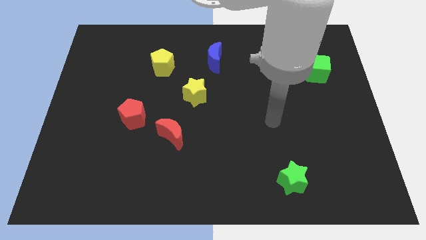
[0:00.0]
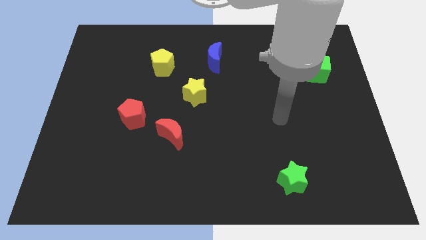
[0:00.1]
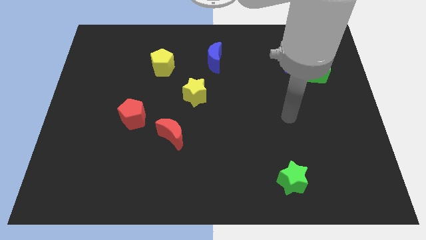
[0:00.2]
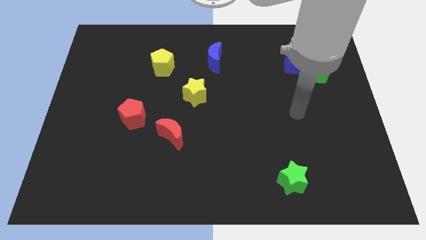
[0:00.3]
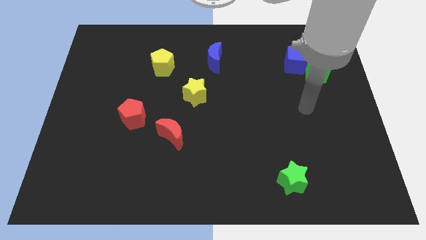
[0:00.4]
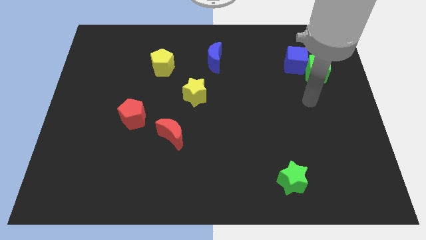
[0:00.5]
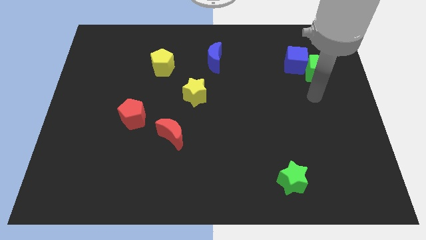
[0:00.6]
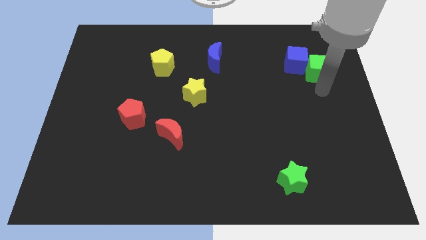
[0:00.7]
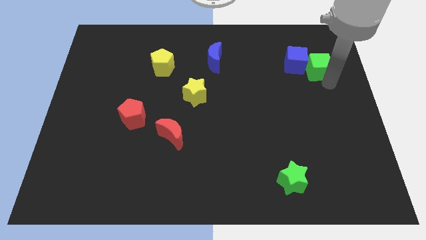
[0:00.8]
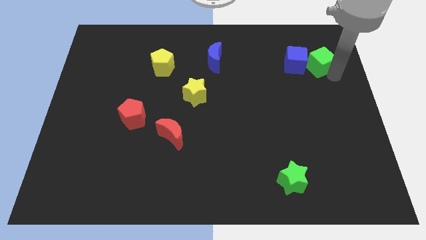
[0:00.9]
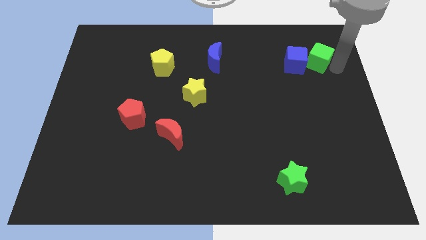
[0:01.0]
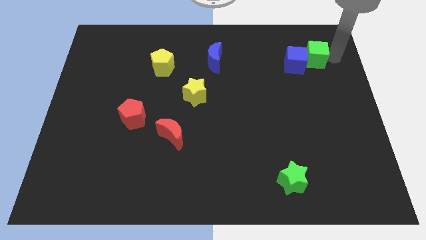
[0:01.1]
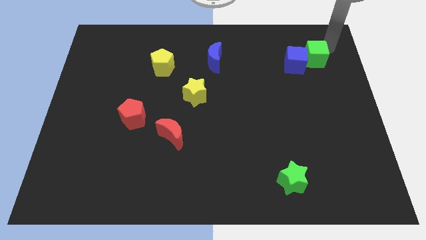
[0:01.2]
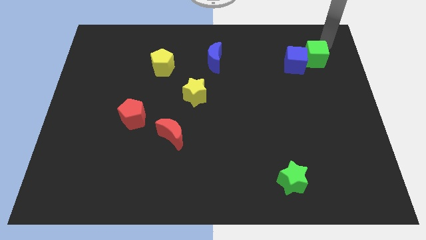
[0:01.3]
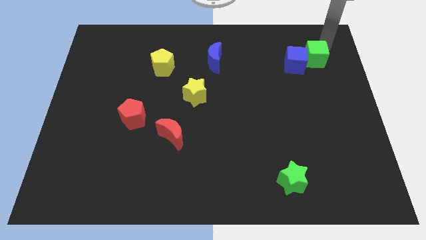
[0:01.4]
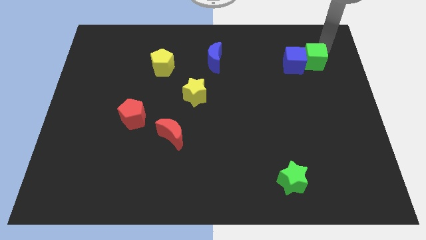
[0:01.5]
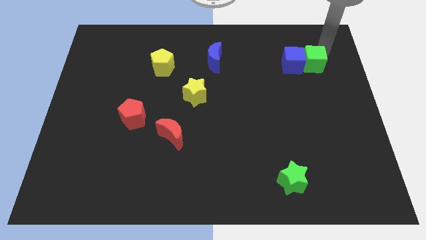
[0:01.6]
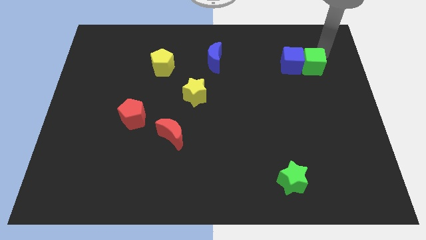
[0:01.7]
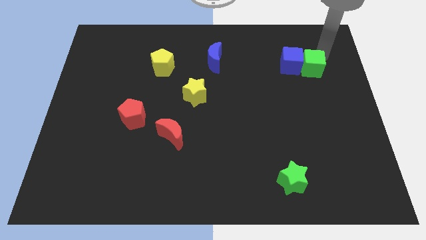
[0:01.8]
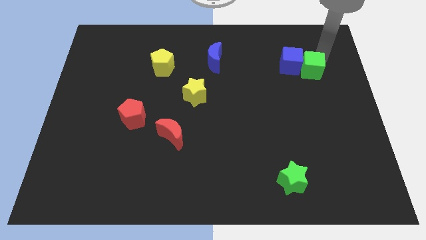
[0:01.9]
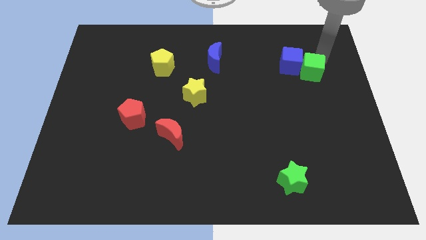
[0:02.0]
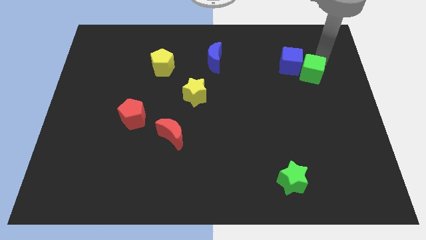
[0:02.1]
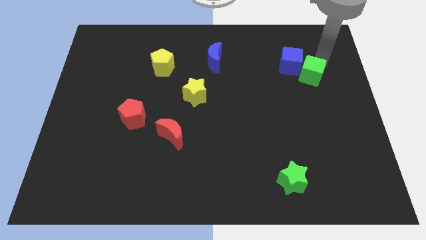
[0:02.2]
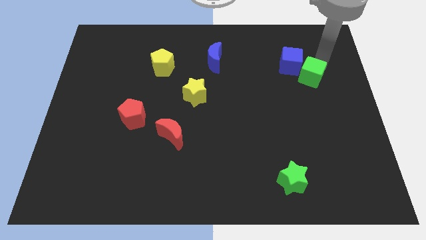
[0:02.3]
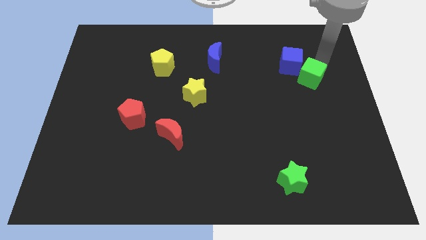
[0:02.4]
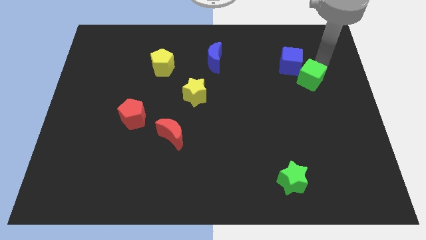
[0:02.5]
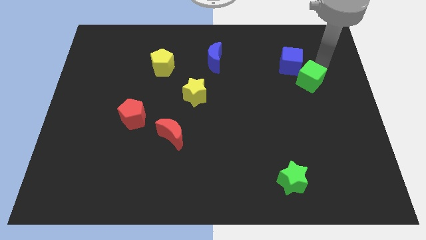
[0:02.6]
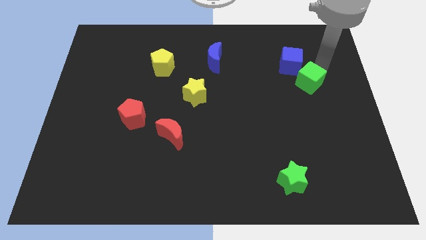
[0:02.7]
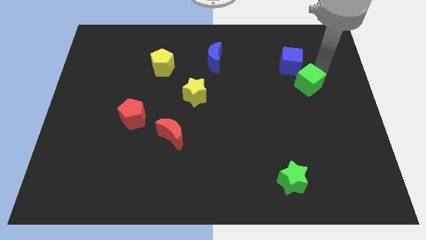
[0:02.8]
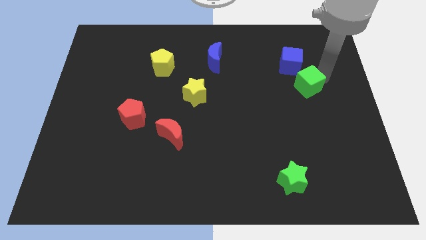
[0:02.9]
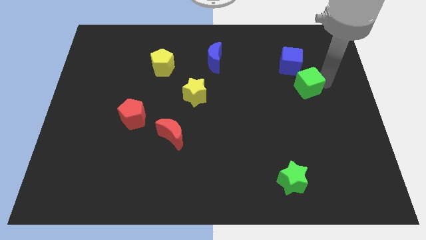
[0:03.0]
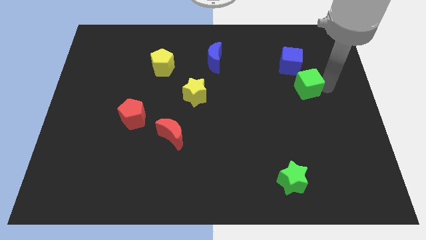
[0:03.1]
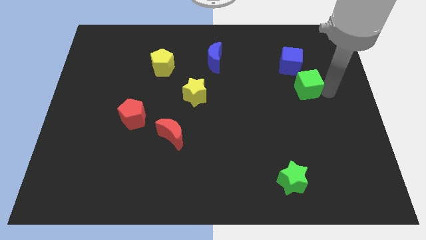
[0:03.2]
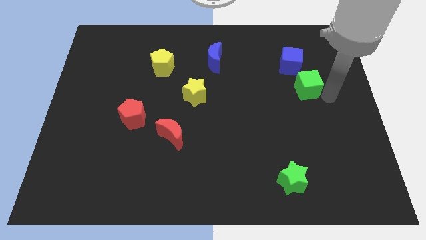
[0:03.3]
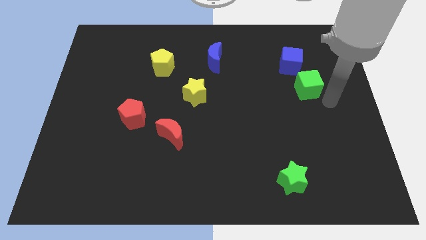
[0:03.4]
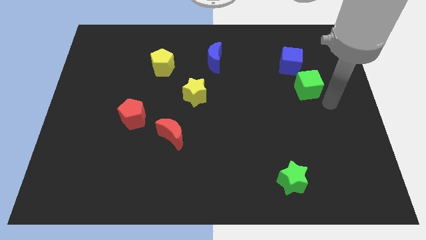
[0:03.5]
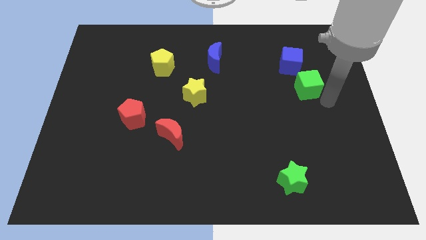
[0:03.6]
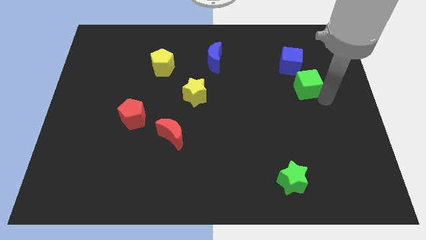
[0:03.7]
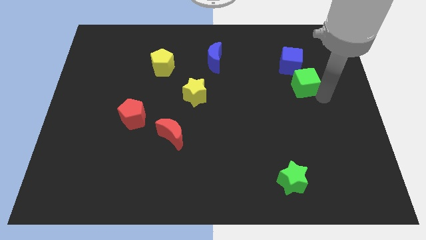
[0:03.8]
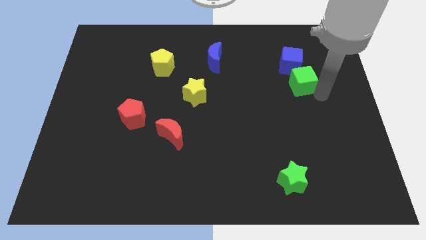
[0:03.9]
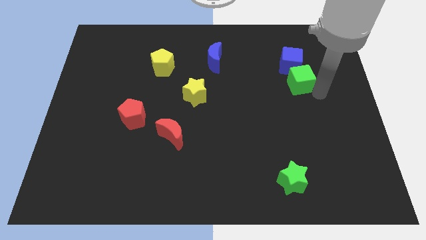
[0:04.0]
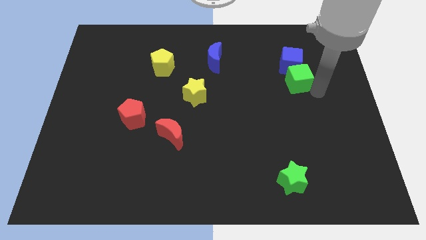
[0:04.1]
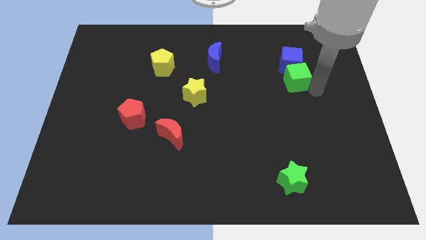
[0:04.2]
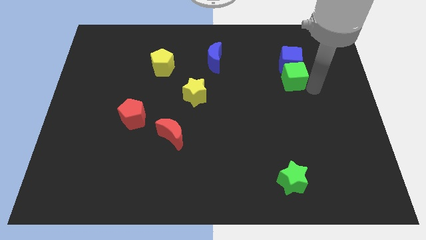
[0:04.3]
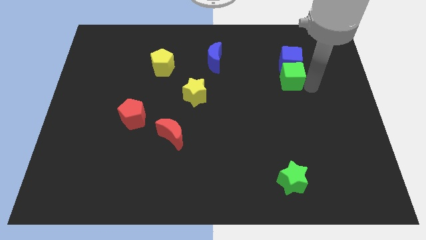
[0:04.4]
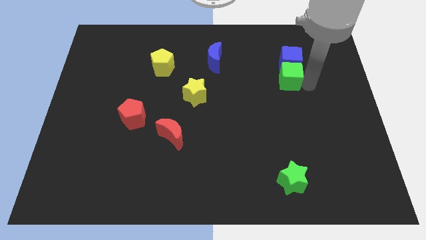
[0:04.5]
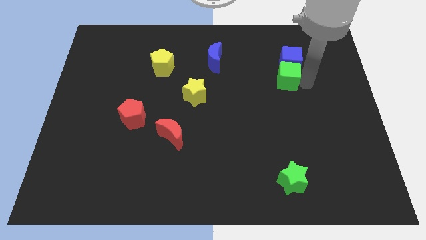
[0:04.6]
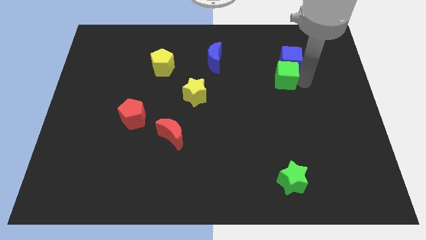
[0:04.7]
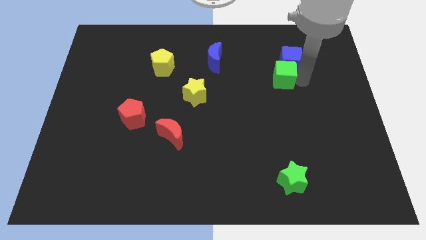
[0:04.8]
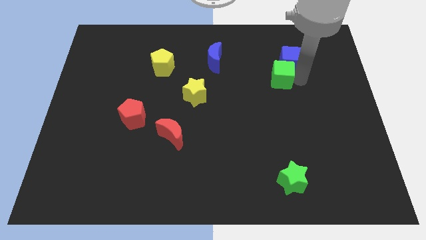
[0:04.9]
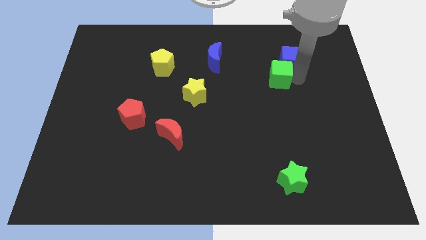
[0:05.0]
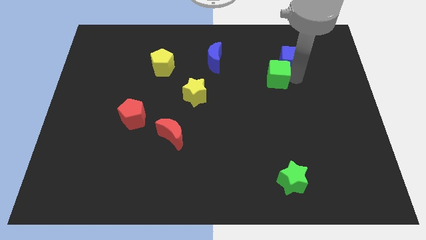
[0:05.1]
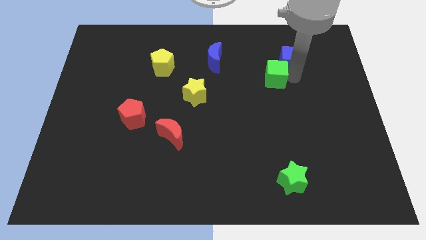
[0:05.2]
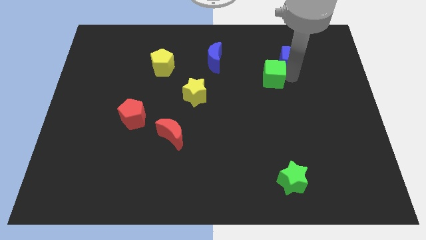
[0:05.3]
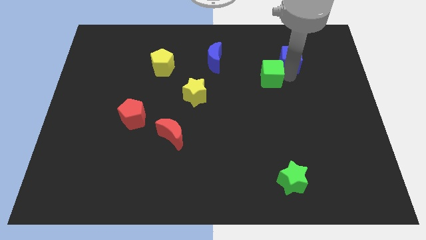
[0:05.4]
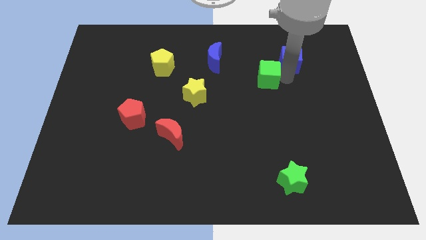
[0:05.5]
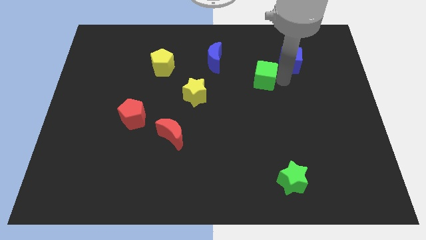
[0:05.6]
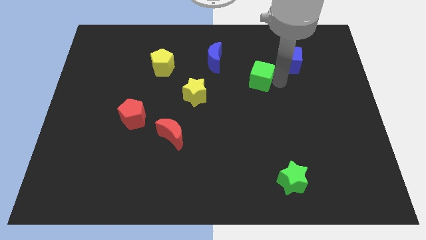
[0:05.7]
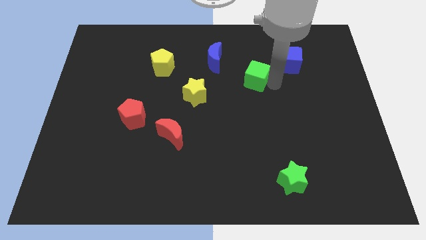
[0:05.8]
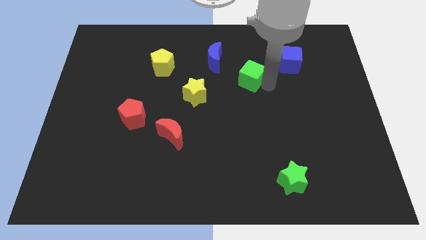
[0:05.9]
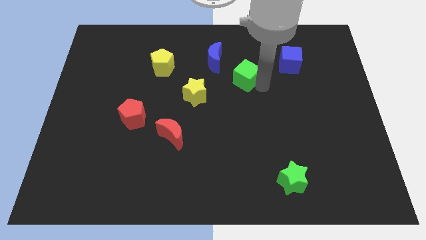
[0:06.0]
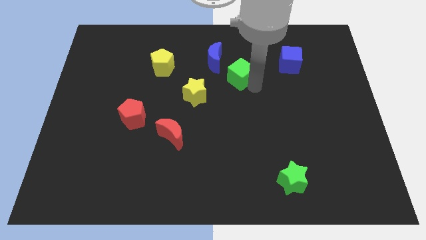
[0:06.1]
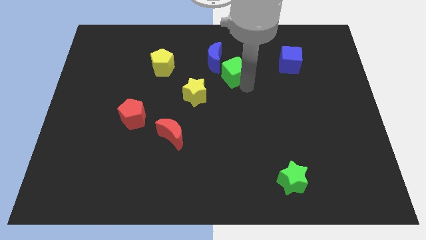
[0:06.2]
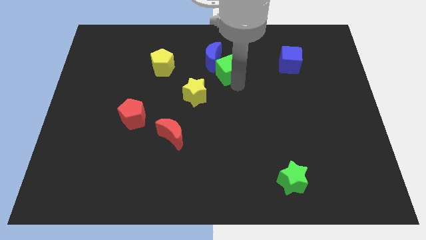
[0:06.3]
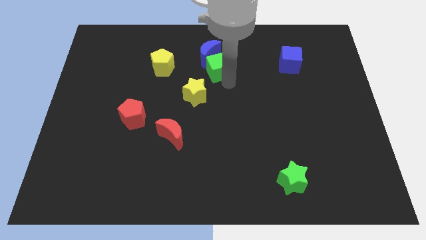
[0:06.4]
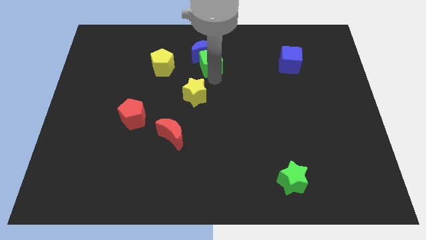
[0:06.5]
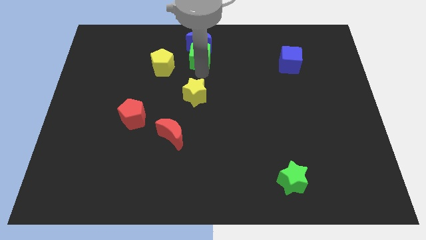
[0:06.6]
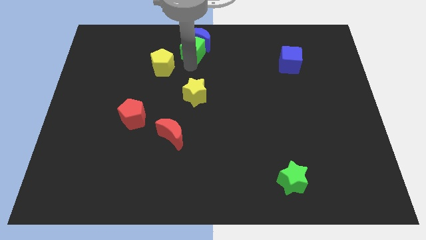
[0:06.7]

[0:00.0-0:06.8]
slide the green cube to the towards your base
